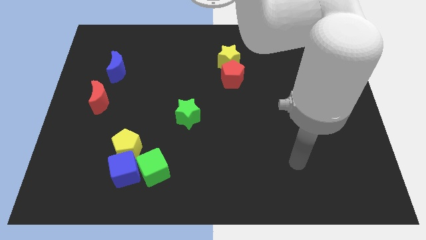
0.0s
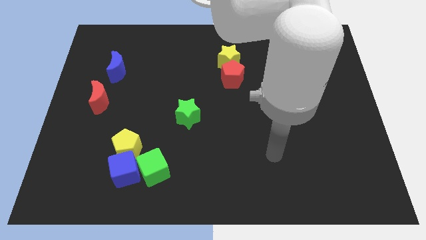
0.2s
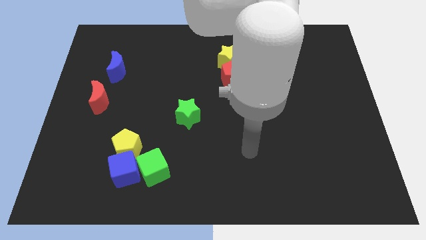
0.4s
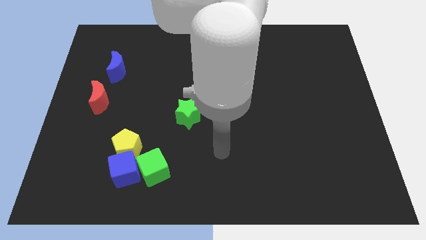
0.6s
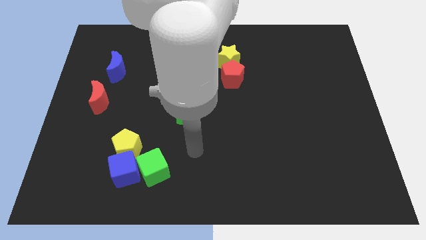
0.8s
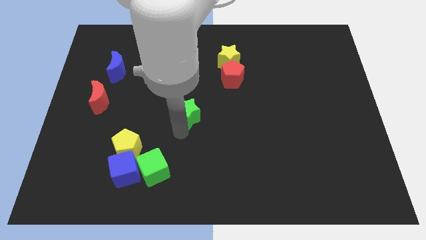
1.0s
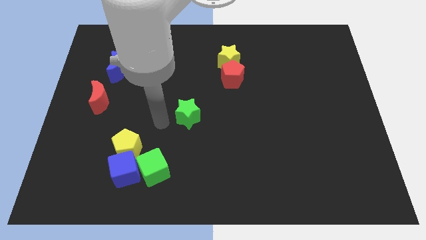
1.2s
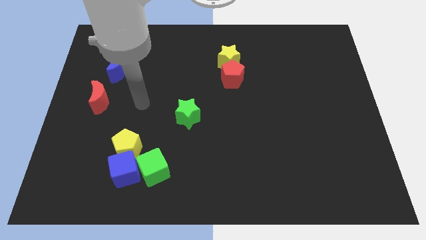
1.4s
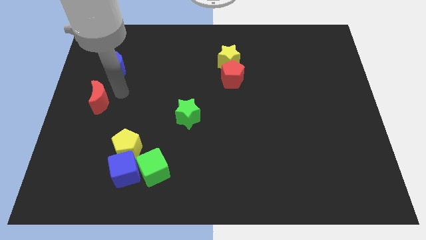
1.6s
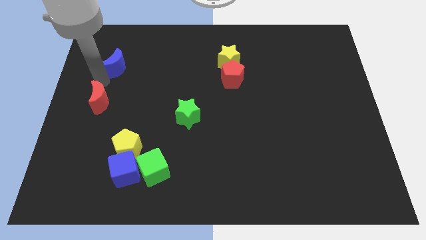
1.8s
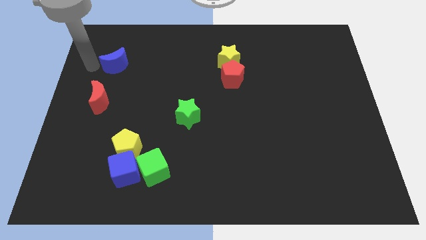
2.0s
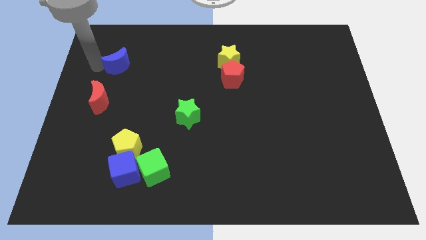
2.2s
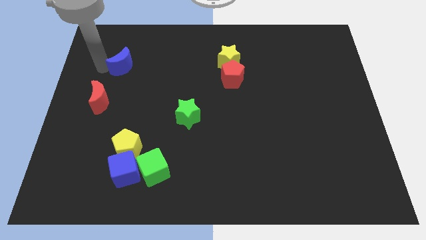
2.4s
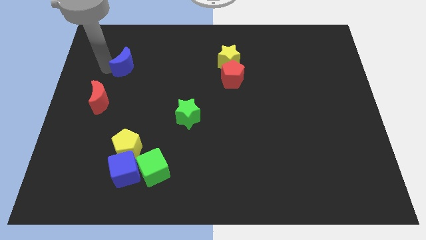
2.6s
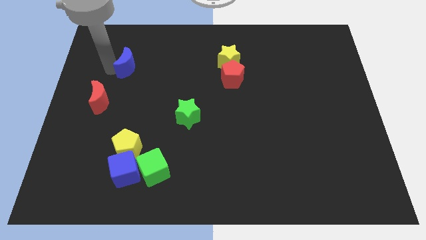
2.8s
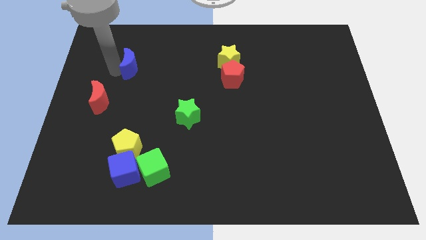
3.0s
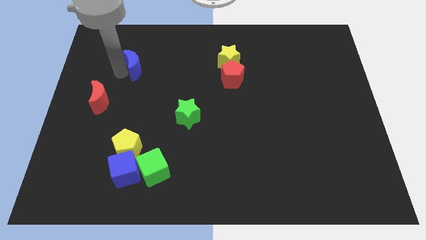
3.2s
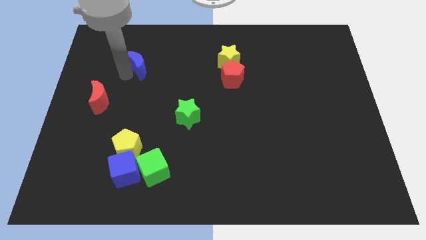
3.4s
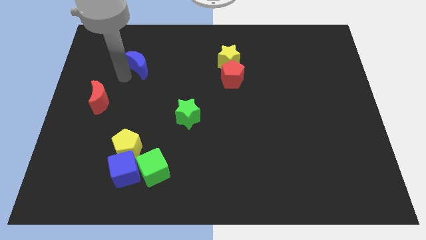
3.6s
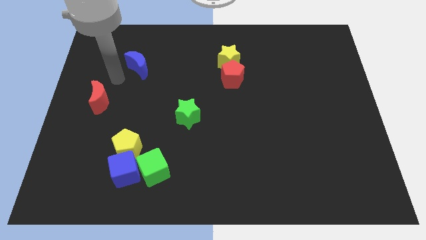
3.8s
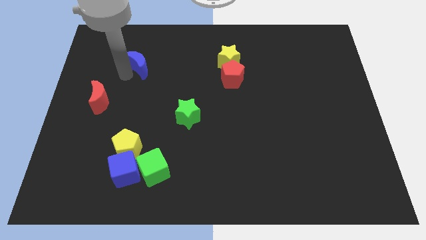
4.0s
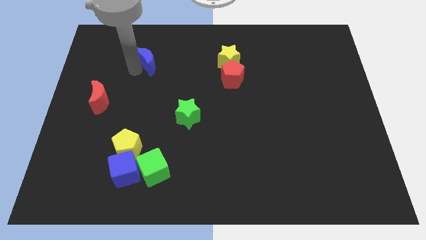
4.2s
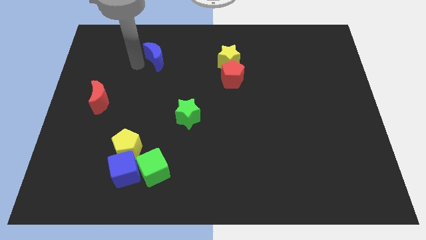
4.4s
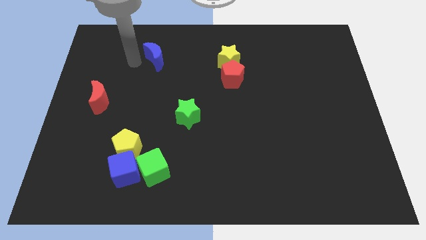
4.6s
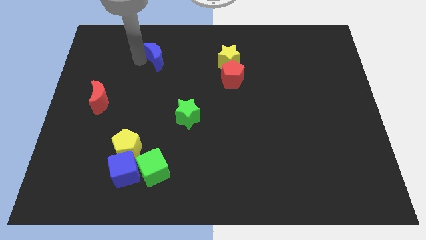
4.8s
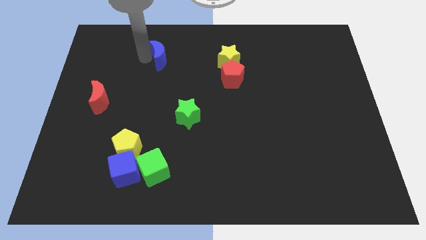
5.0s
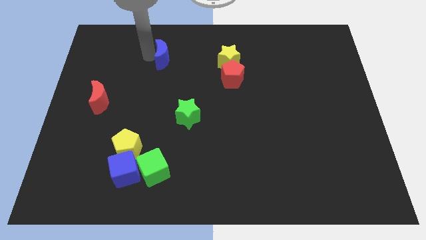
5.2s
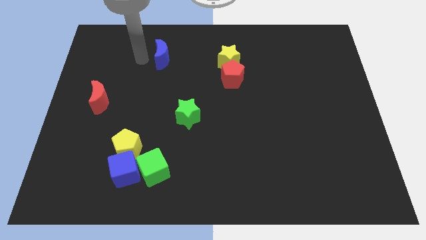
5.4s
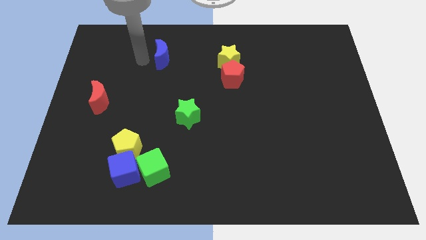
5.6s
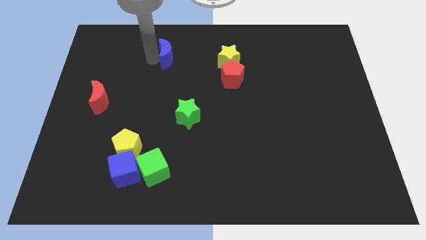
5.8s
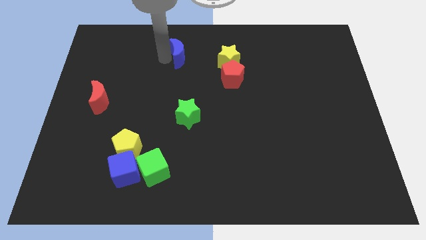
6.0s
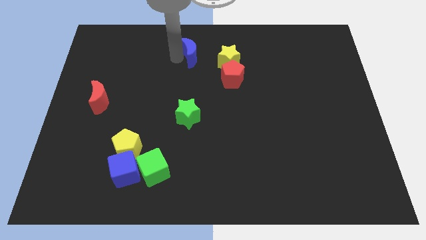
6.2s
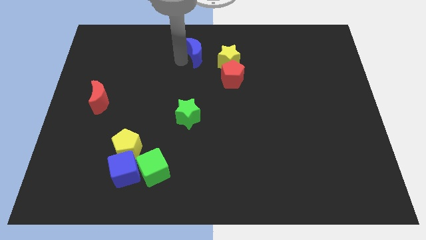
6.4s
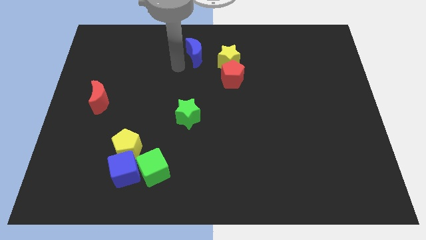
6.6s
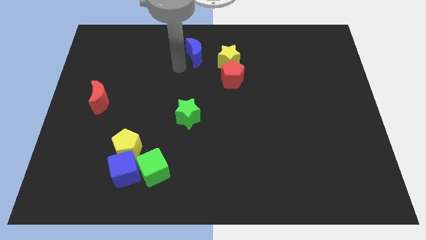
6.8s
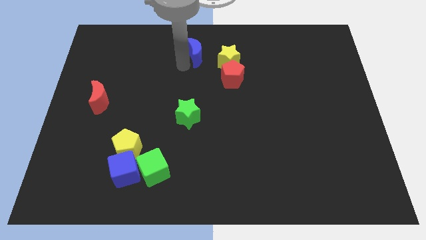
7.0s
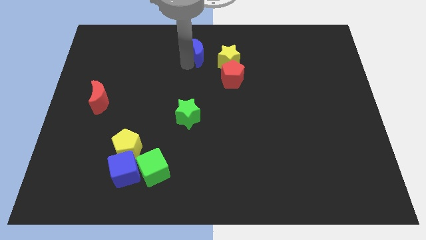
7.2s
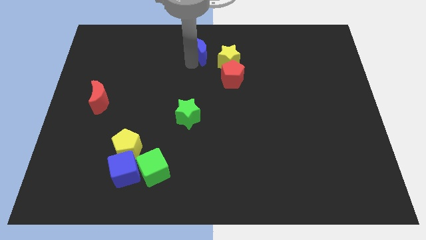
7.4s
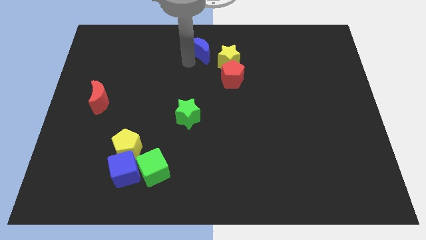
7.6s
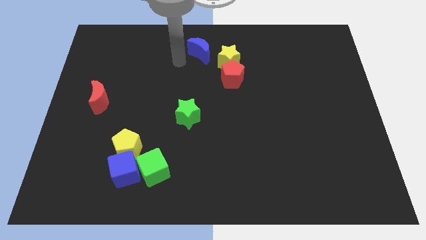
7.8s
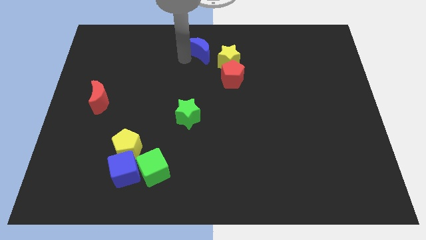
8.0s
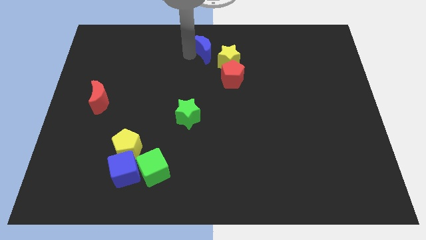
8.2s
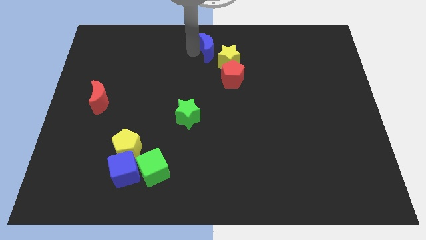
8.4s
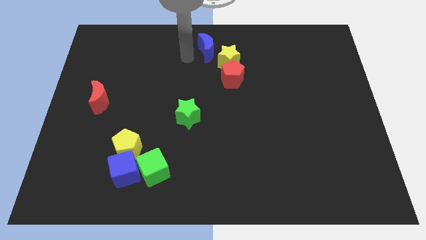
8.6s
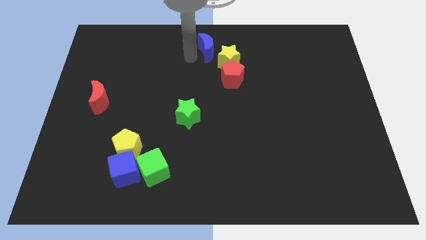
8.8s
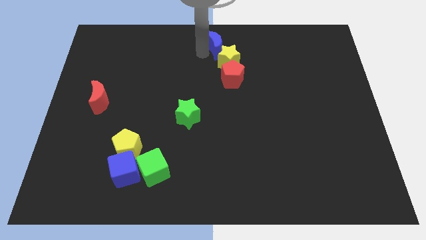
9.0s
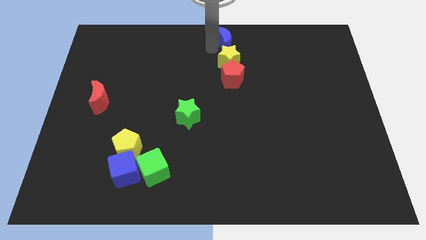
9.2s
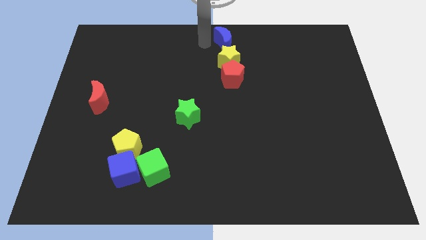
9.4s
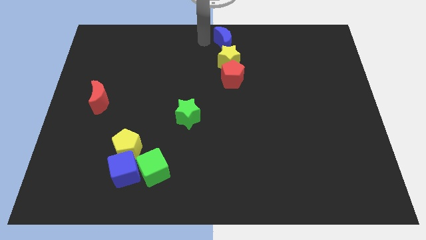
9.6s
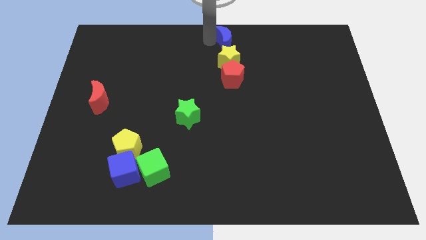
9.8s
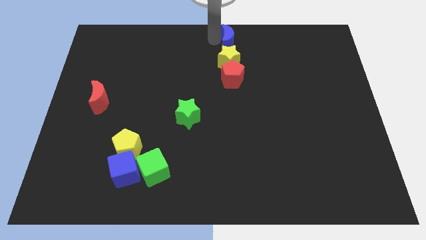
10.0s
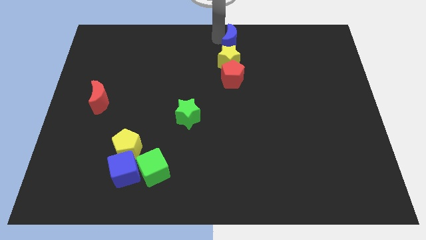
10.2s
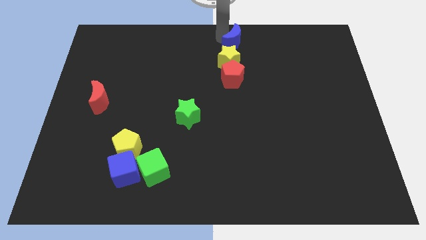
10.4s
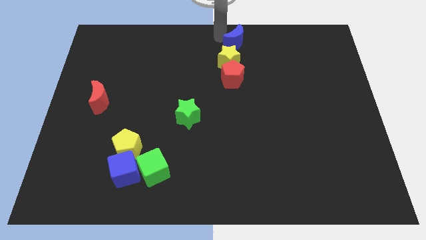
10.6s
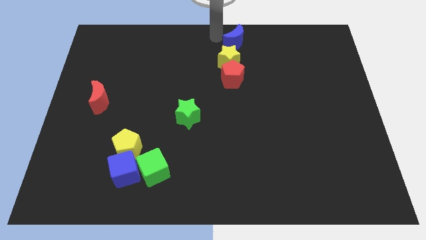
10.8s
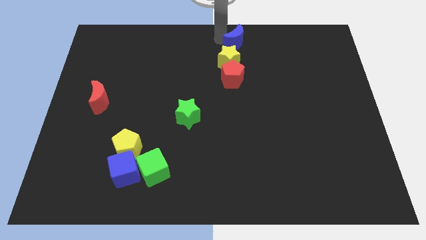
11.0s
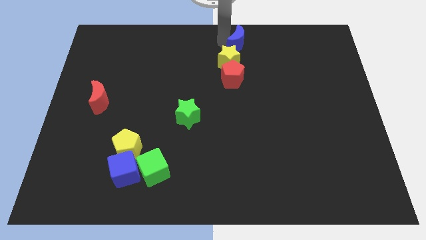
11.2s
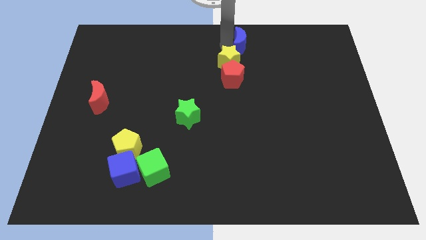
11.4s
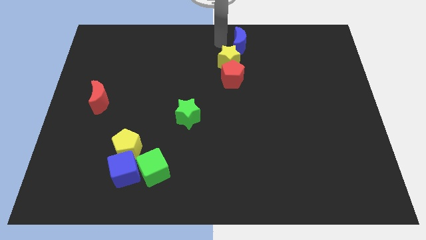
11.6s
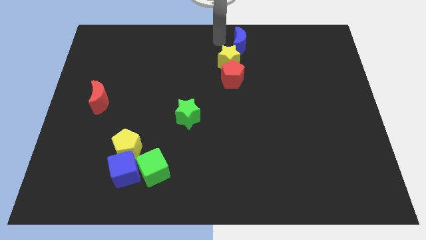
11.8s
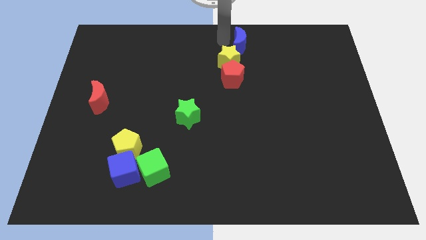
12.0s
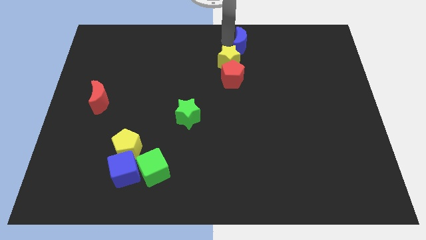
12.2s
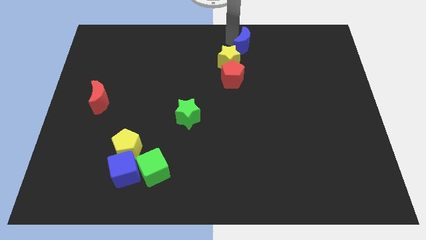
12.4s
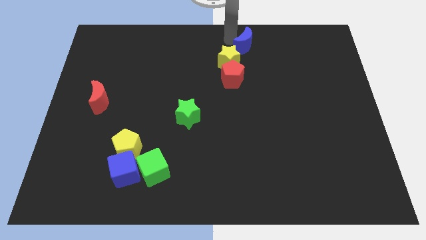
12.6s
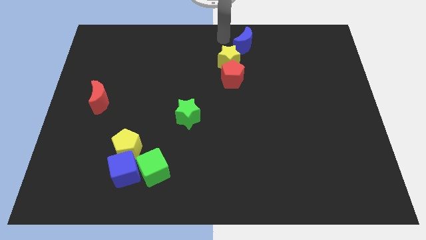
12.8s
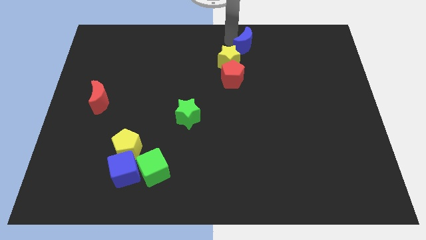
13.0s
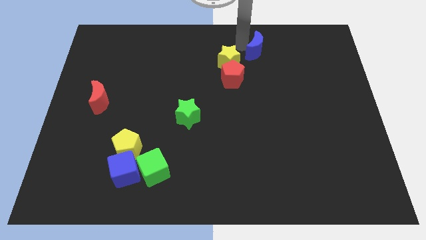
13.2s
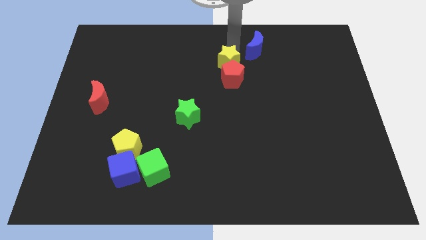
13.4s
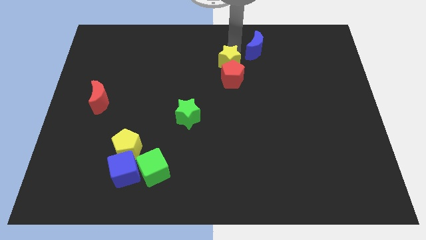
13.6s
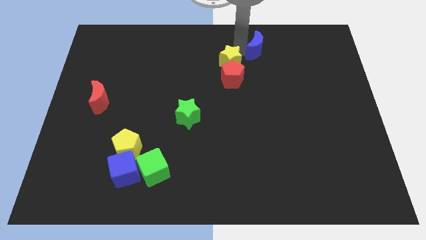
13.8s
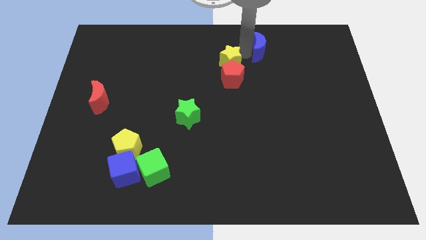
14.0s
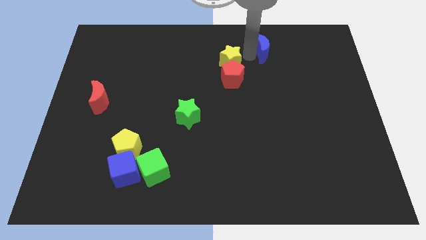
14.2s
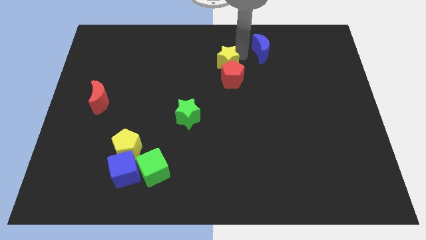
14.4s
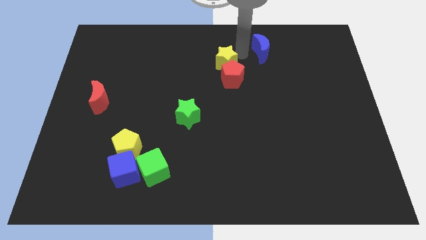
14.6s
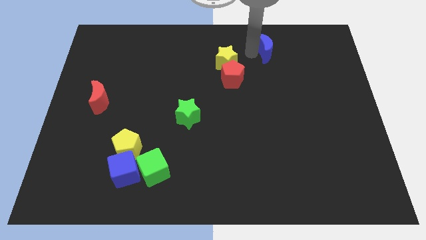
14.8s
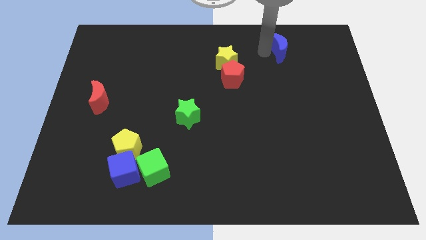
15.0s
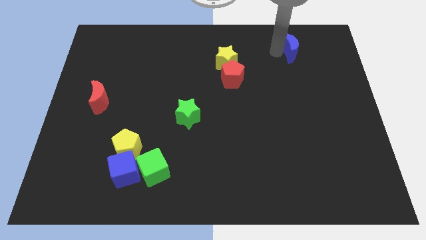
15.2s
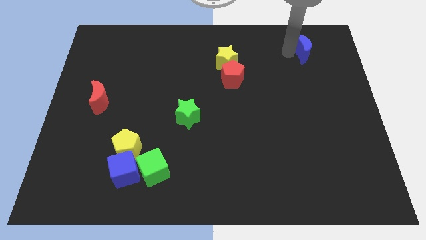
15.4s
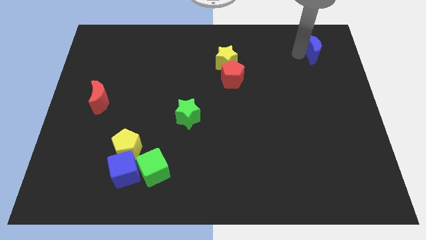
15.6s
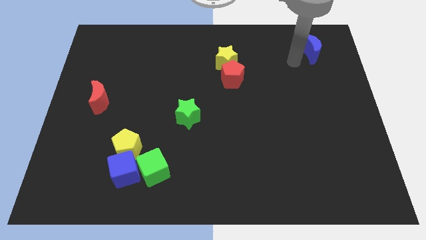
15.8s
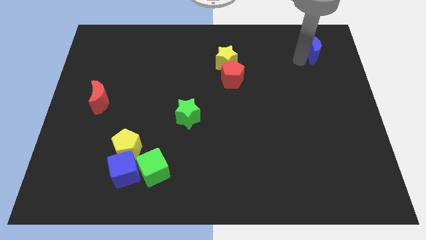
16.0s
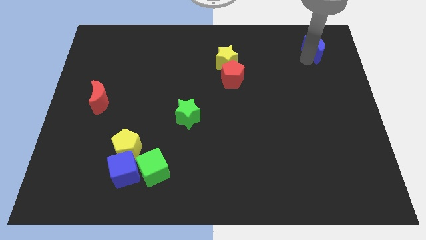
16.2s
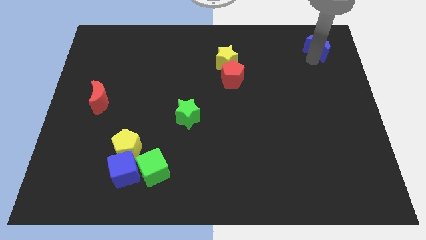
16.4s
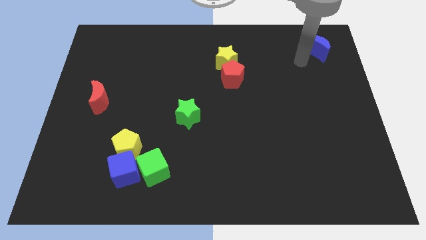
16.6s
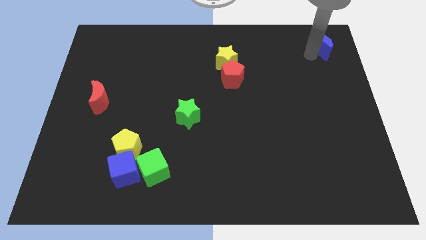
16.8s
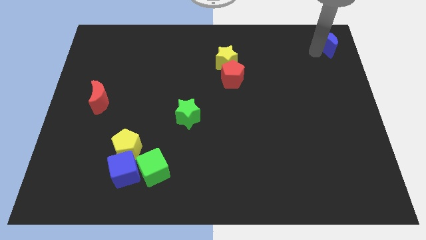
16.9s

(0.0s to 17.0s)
push the blue moon to the top right of the board
